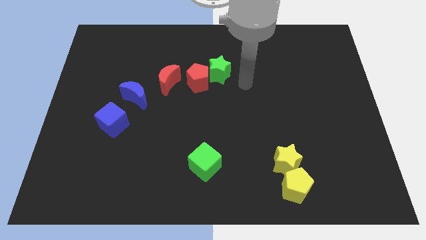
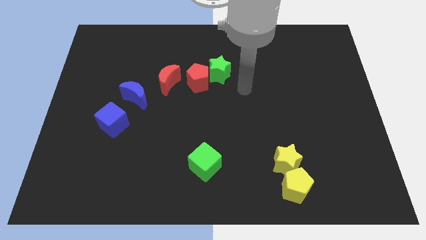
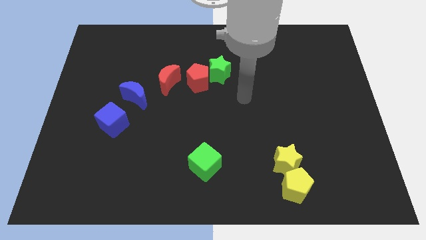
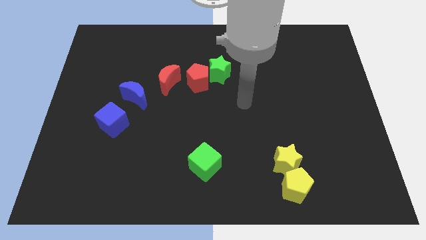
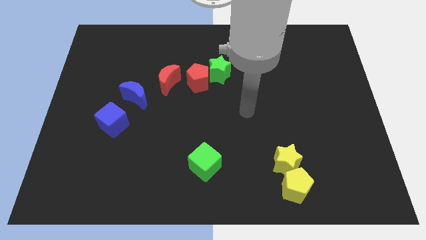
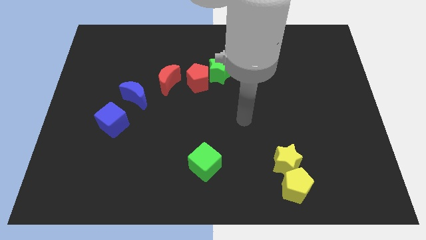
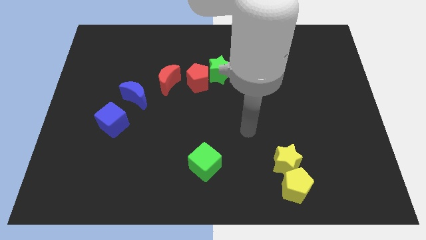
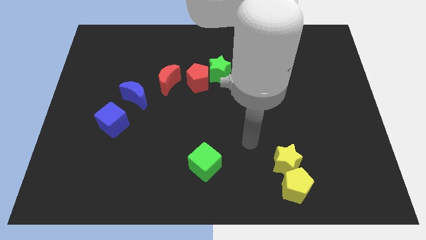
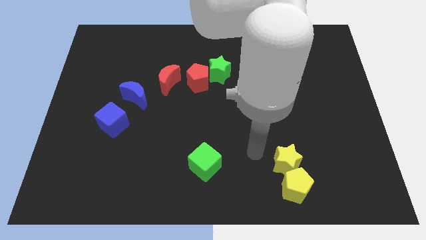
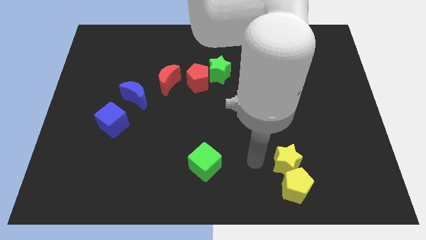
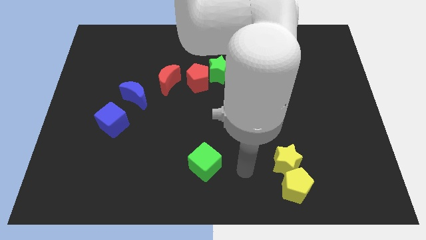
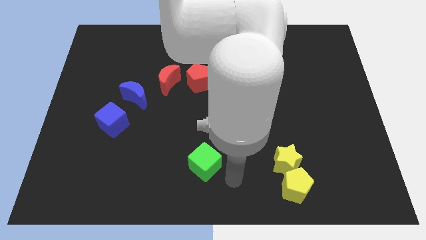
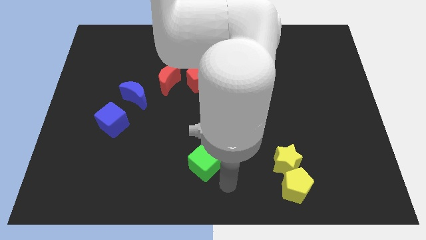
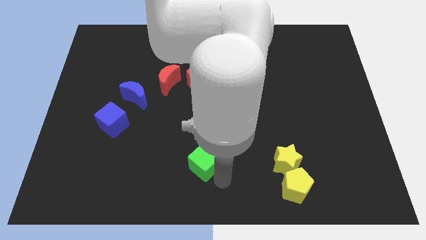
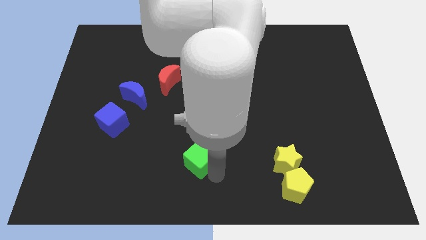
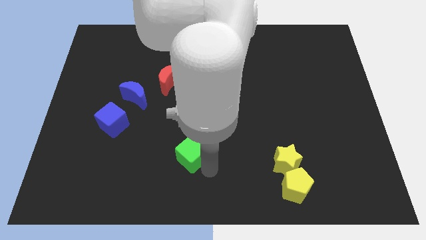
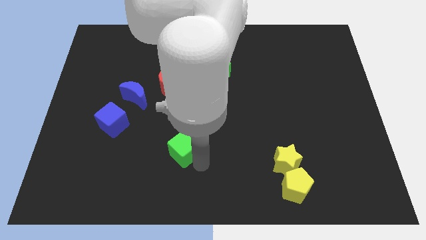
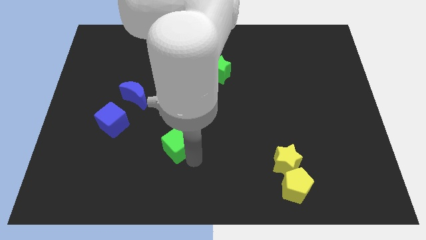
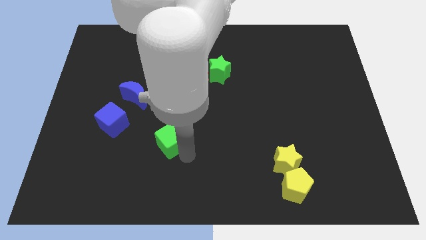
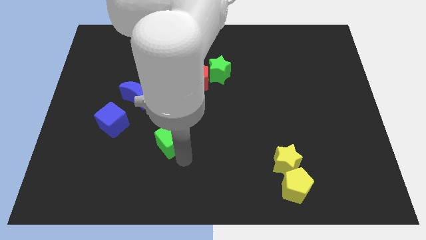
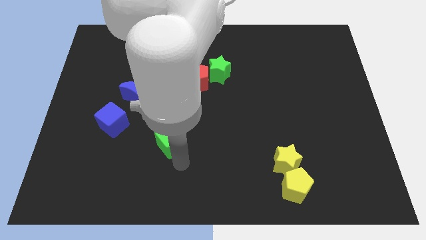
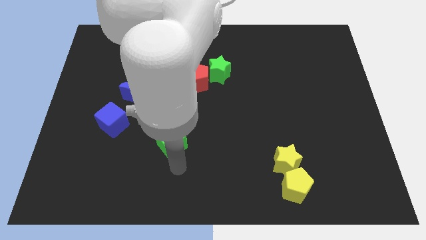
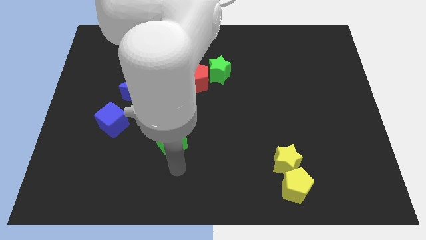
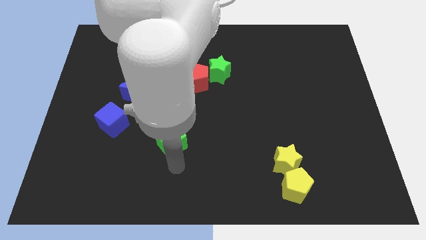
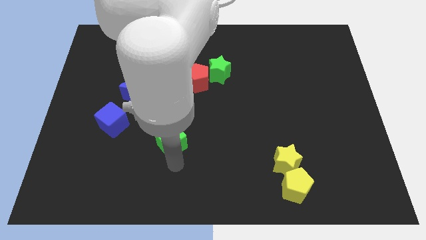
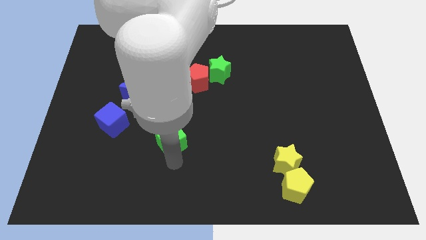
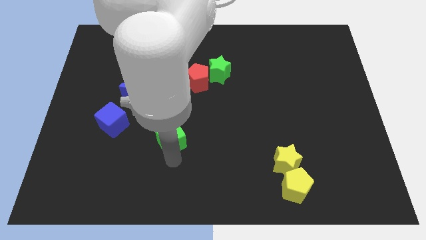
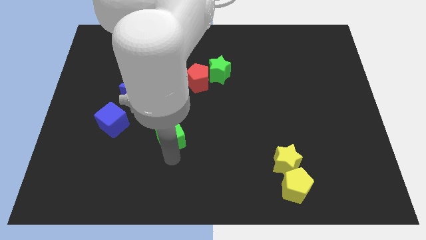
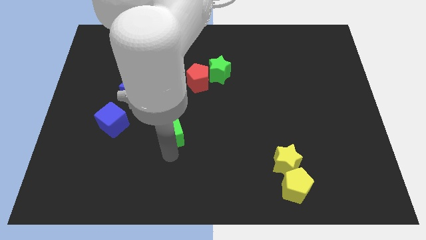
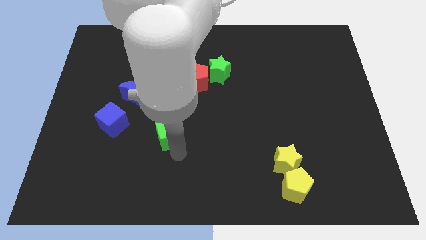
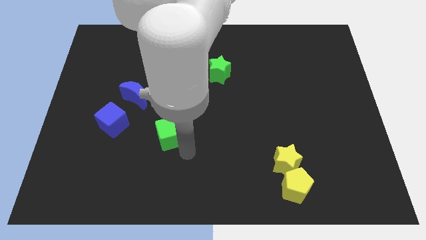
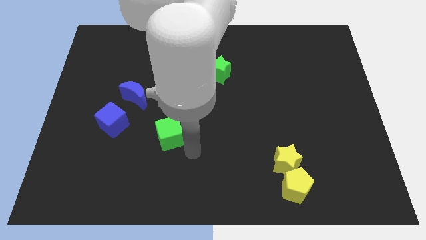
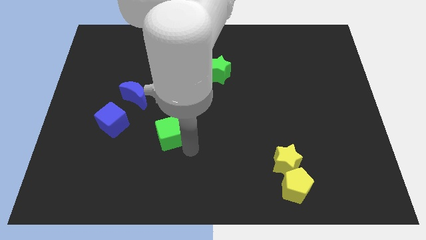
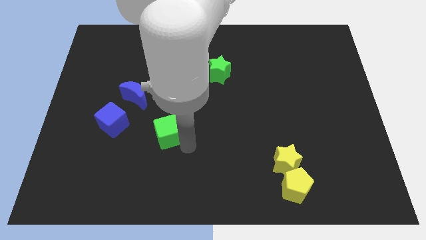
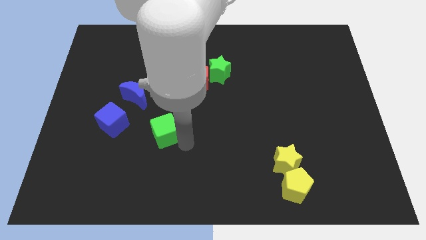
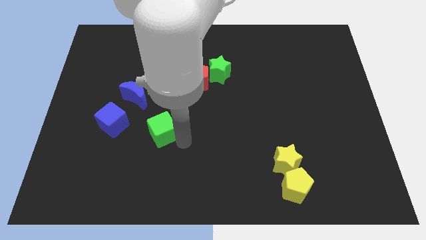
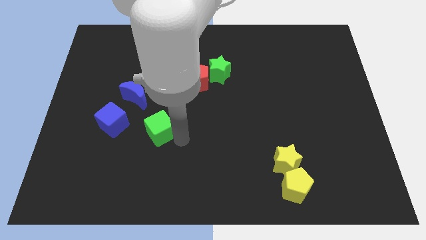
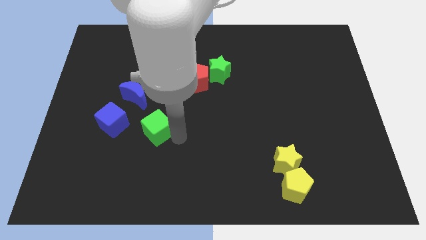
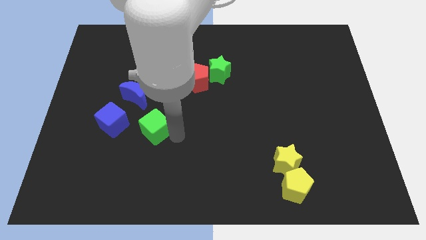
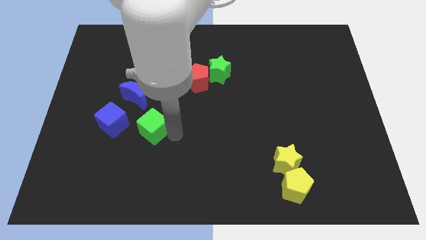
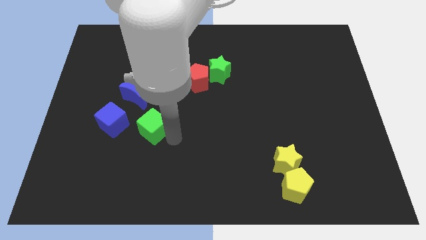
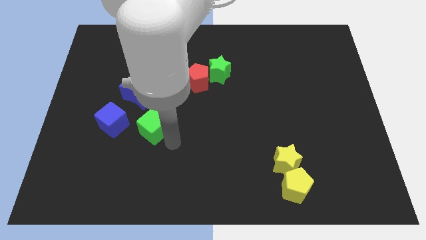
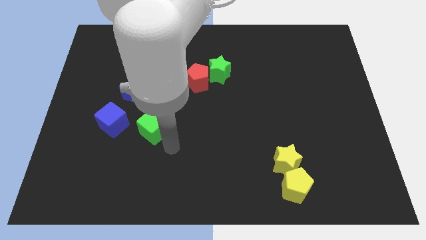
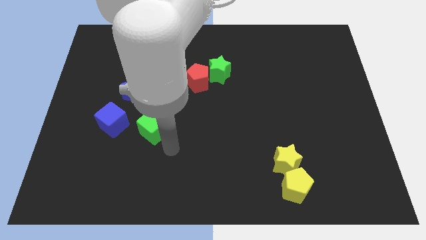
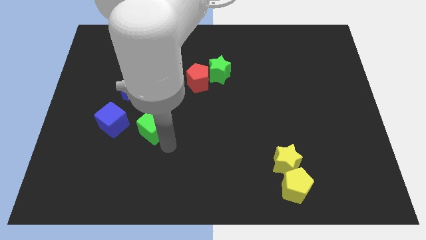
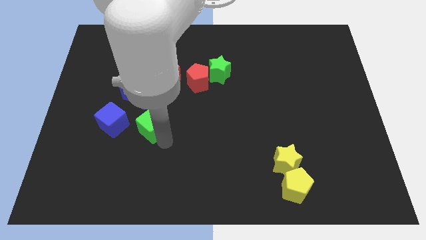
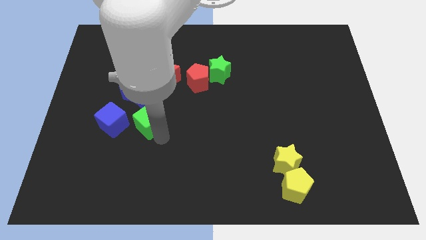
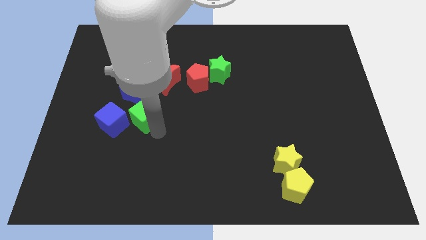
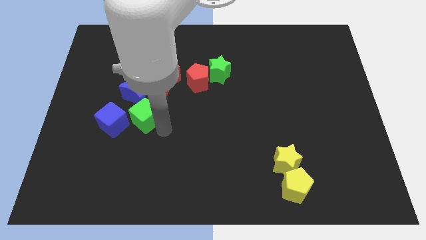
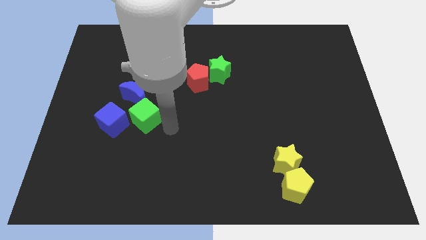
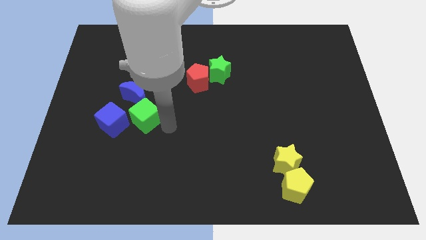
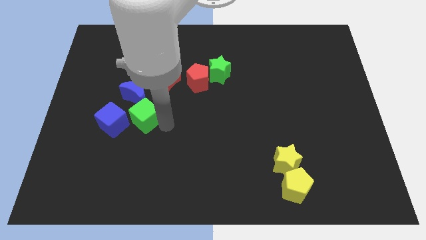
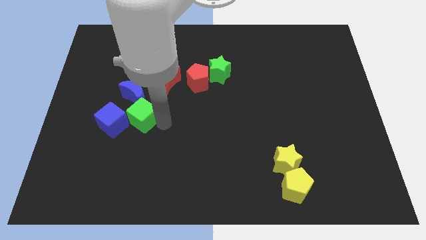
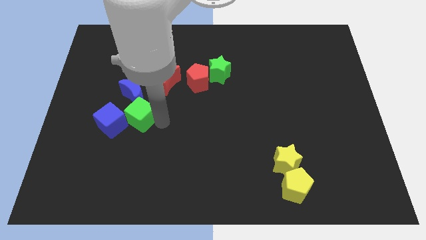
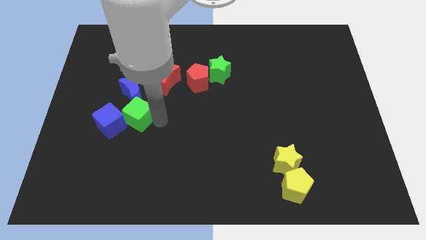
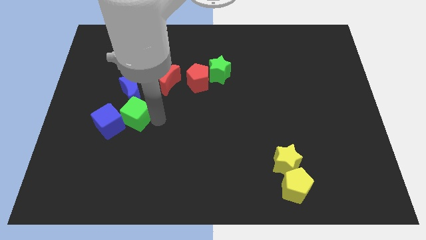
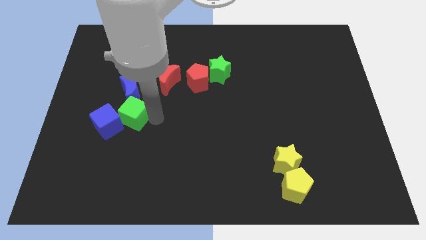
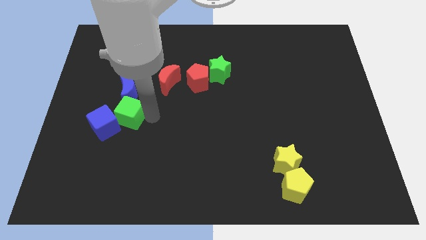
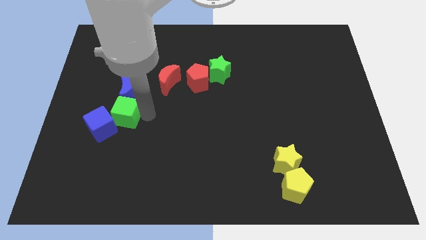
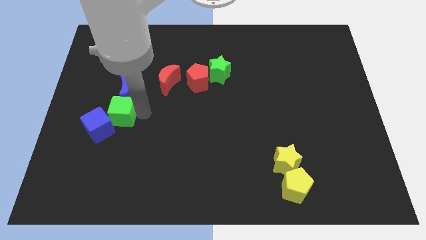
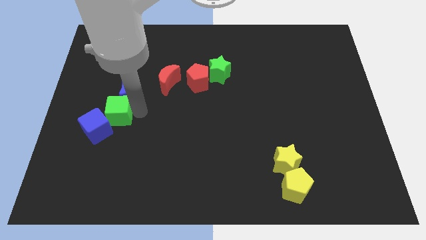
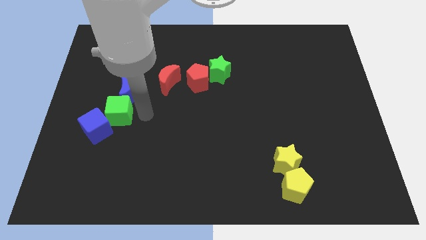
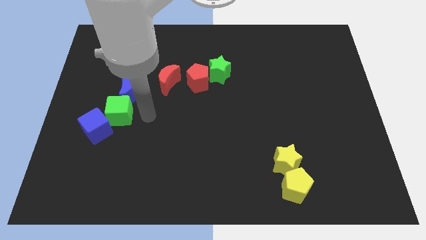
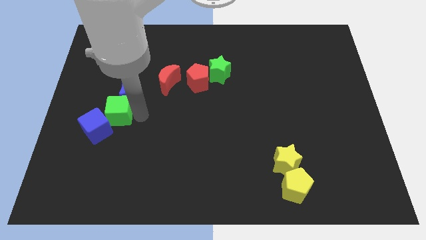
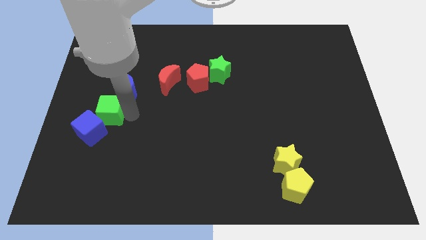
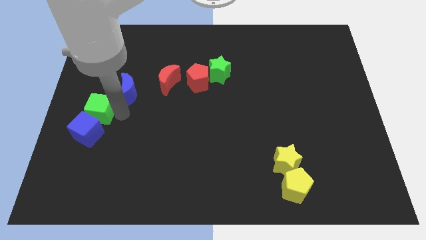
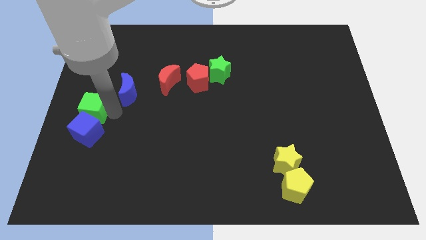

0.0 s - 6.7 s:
push the green cube to the top left of the blue cube
